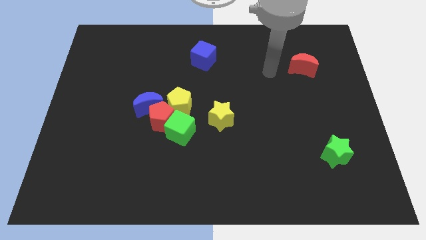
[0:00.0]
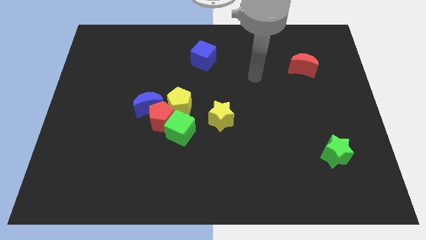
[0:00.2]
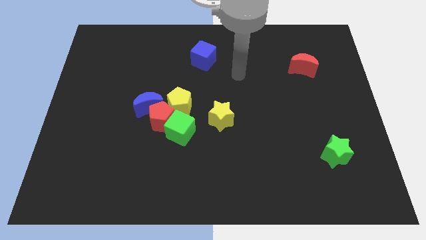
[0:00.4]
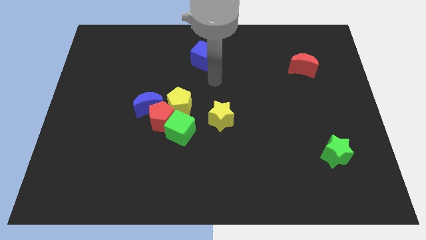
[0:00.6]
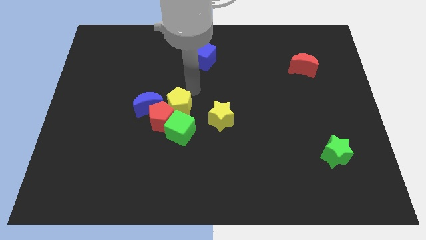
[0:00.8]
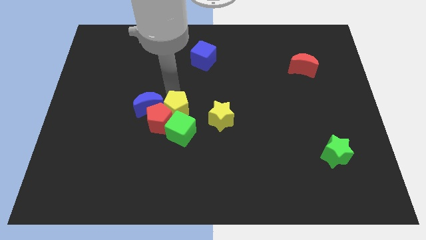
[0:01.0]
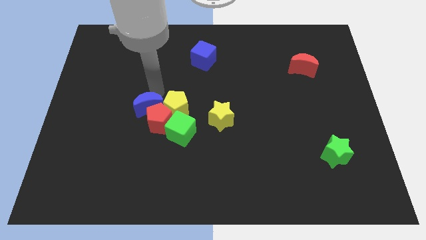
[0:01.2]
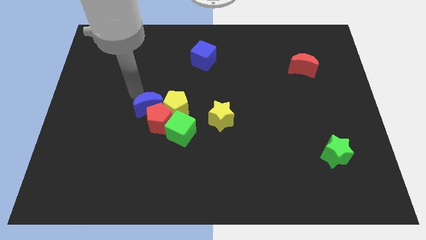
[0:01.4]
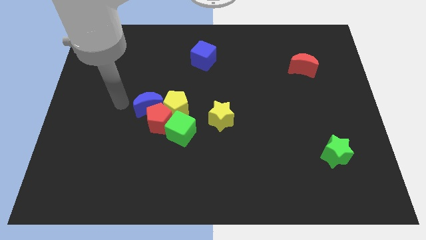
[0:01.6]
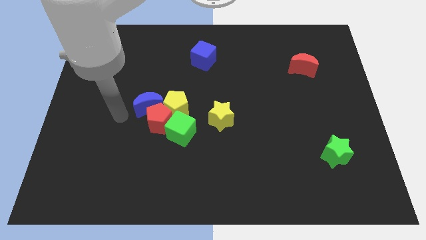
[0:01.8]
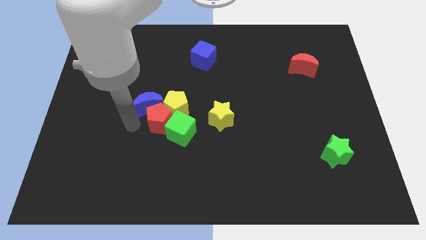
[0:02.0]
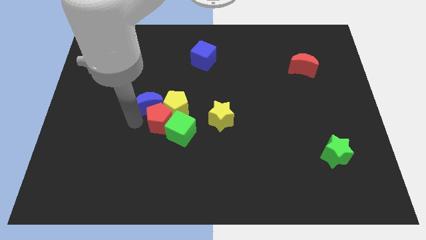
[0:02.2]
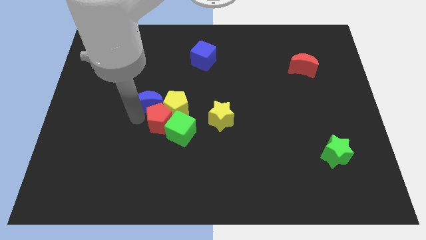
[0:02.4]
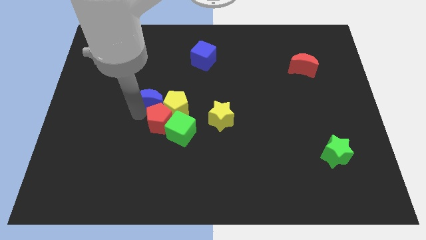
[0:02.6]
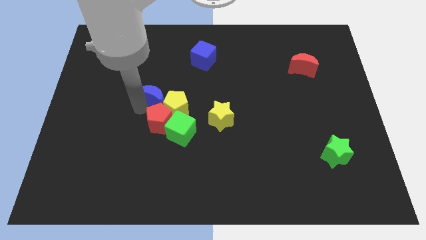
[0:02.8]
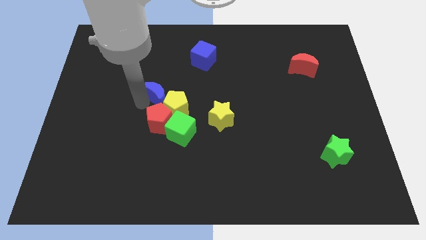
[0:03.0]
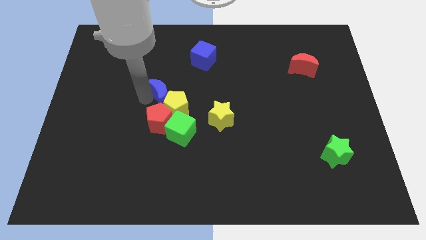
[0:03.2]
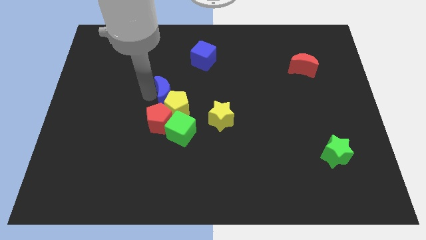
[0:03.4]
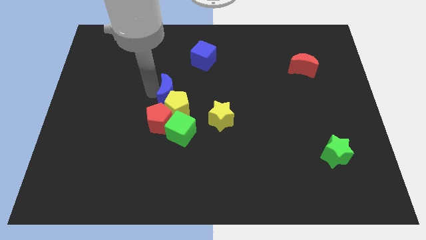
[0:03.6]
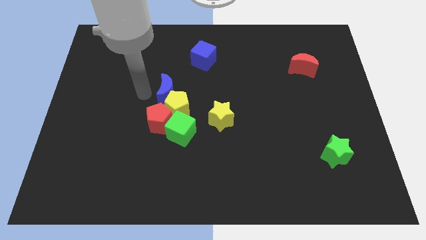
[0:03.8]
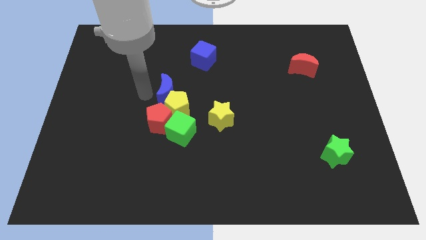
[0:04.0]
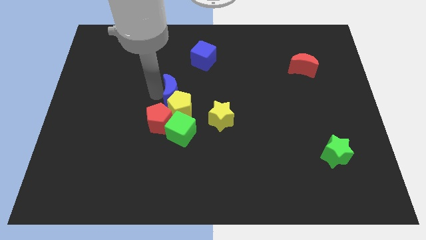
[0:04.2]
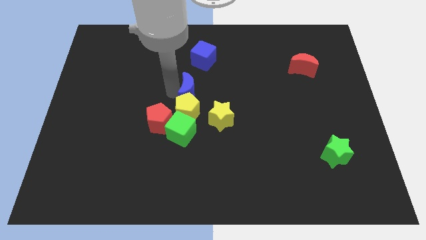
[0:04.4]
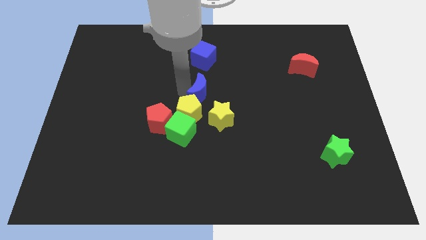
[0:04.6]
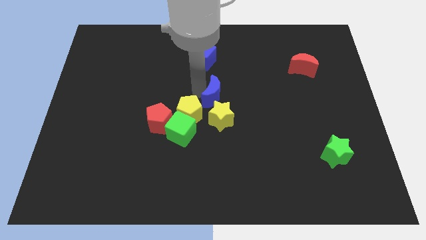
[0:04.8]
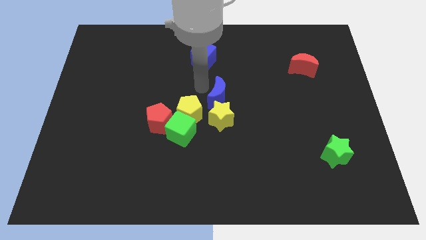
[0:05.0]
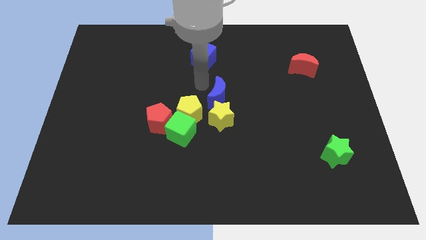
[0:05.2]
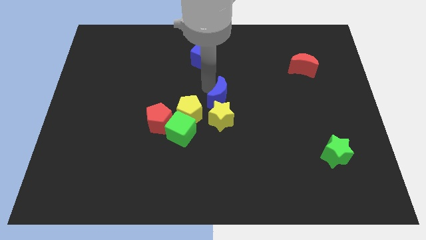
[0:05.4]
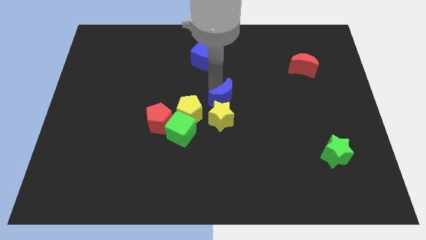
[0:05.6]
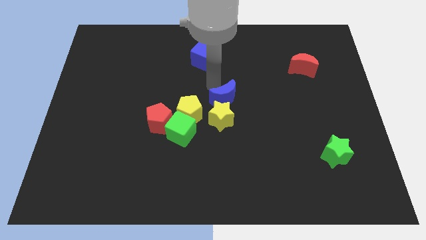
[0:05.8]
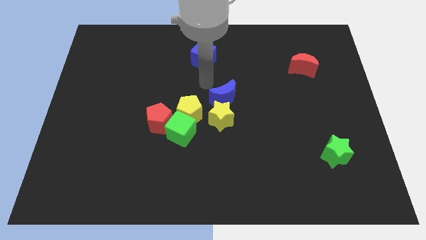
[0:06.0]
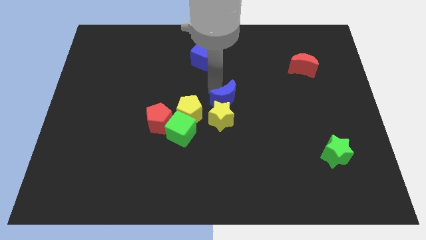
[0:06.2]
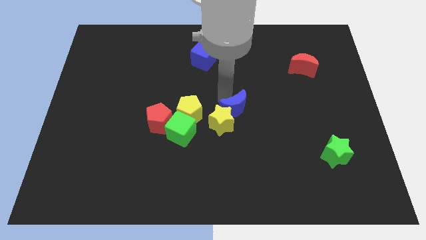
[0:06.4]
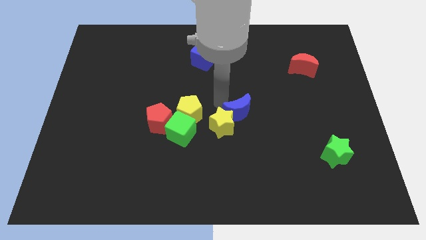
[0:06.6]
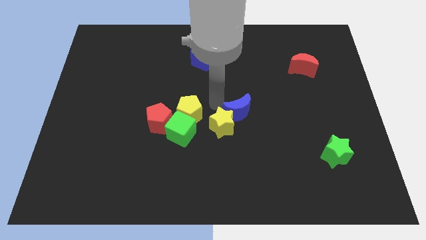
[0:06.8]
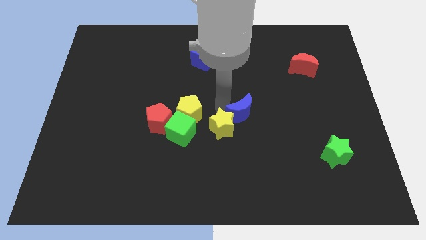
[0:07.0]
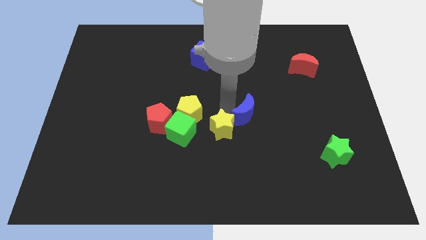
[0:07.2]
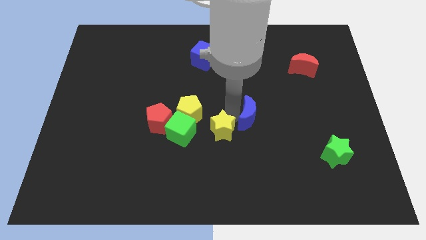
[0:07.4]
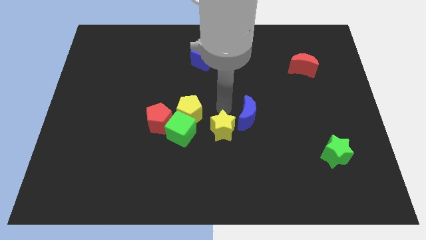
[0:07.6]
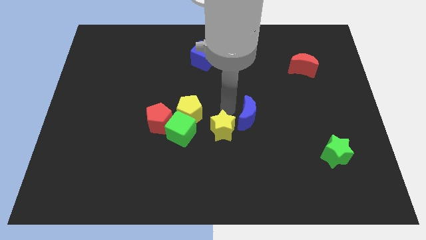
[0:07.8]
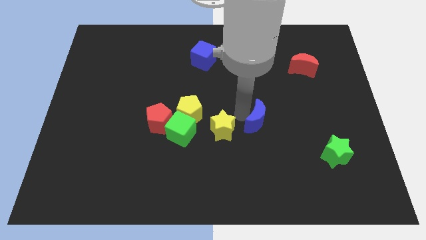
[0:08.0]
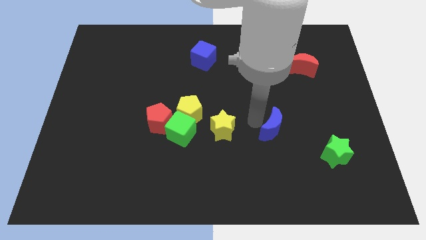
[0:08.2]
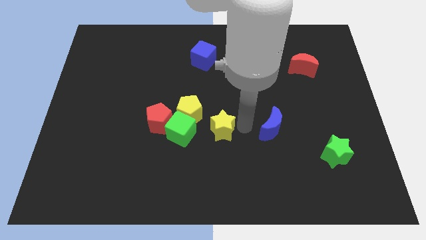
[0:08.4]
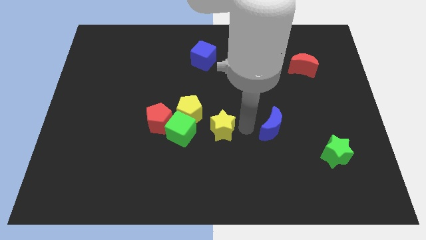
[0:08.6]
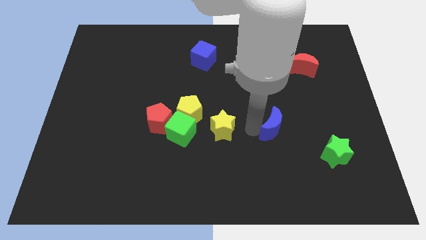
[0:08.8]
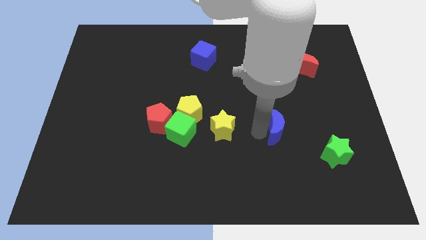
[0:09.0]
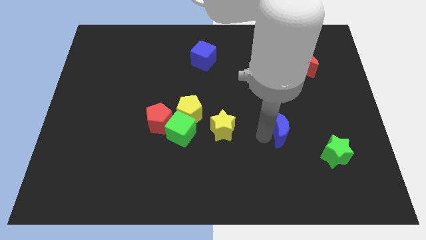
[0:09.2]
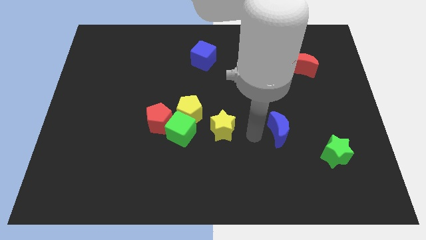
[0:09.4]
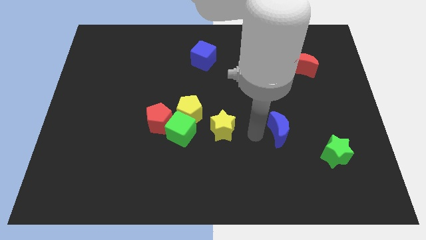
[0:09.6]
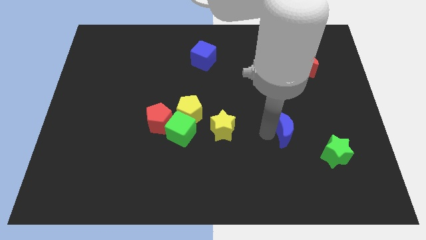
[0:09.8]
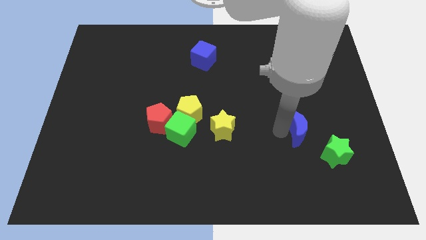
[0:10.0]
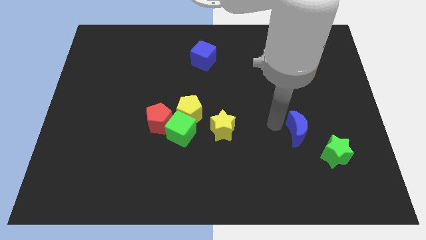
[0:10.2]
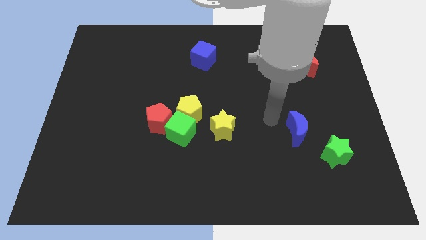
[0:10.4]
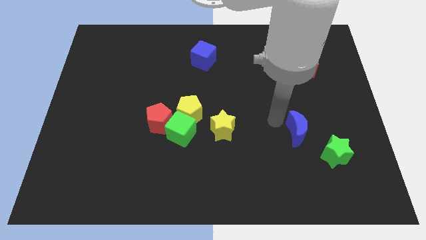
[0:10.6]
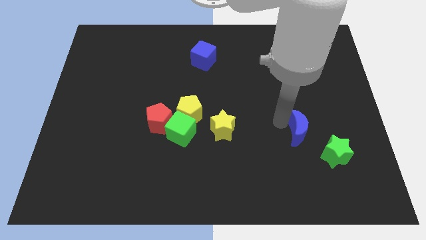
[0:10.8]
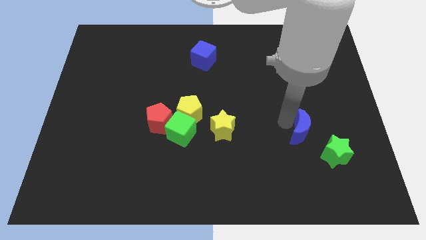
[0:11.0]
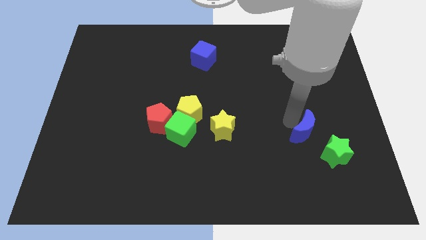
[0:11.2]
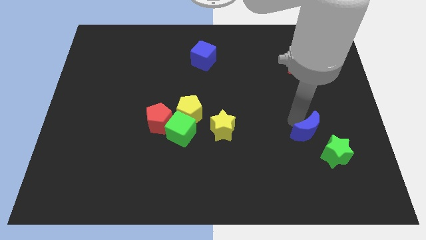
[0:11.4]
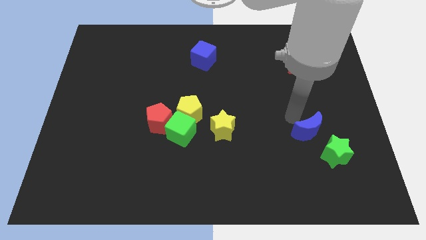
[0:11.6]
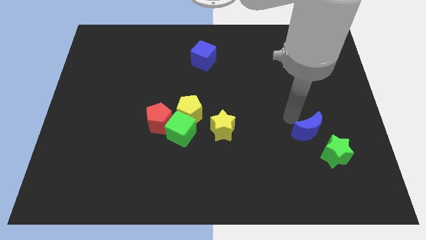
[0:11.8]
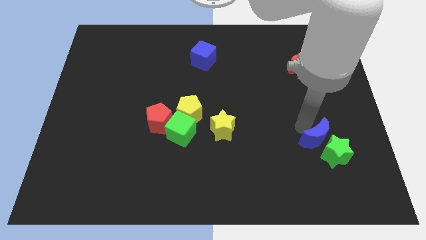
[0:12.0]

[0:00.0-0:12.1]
move the blue moon to the green star

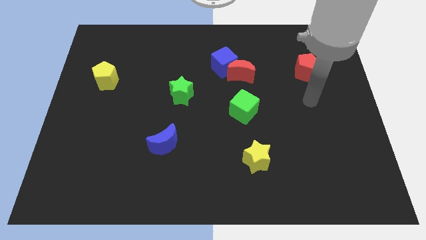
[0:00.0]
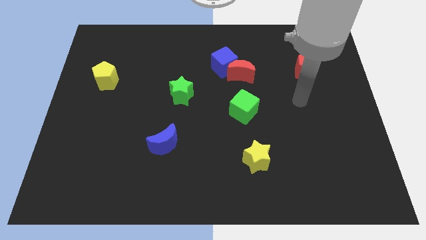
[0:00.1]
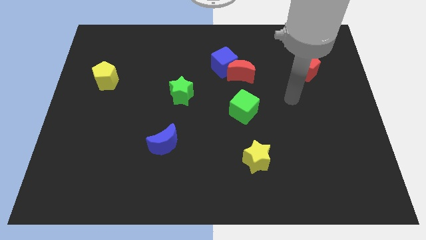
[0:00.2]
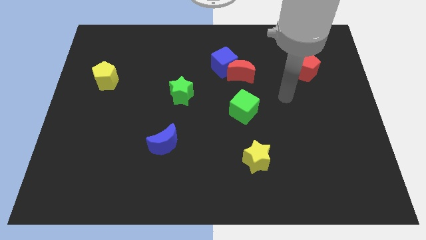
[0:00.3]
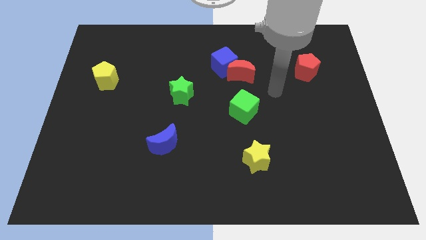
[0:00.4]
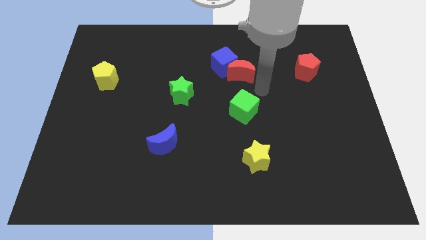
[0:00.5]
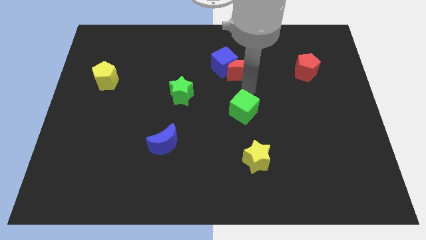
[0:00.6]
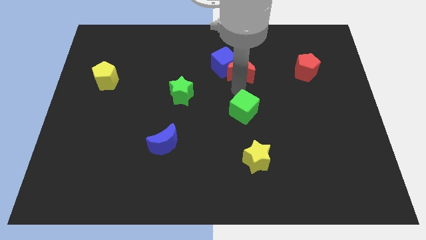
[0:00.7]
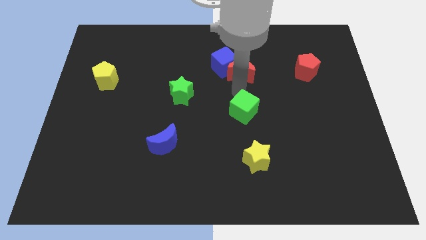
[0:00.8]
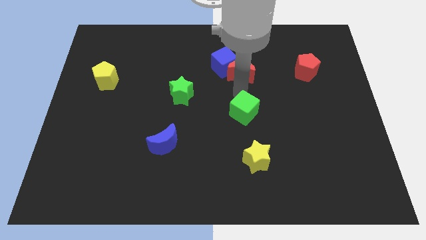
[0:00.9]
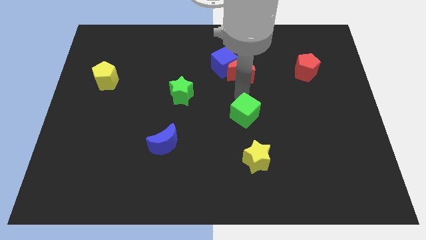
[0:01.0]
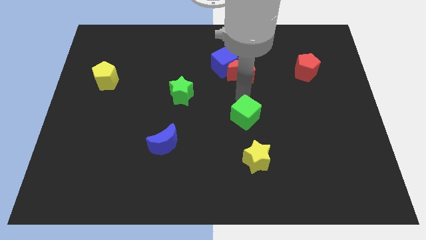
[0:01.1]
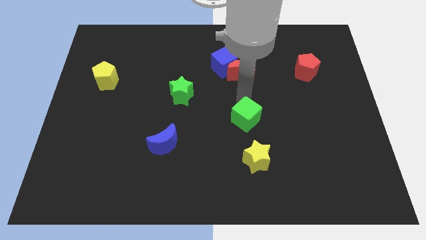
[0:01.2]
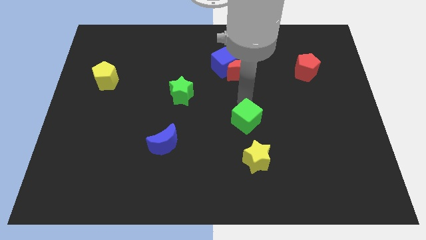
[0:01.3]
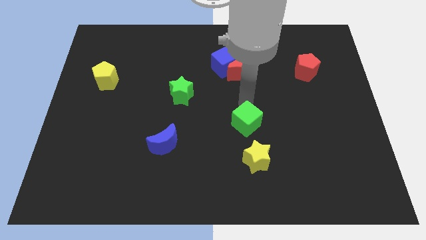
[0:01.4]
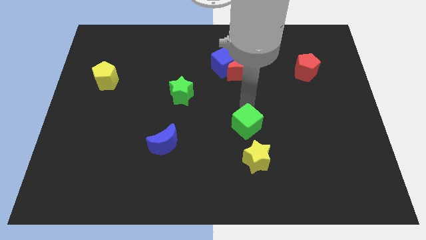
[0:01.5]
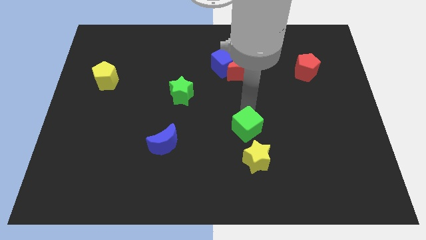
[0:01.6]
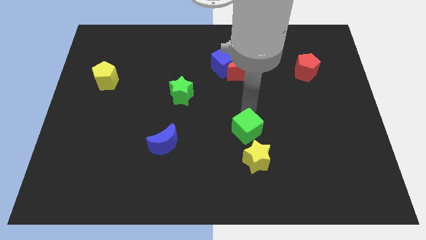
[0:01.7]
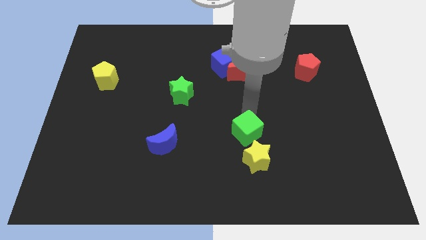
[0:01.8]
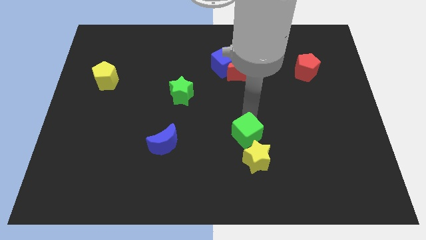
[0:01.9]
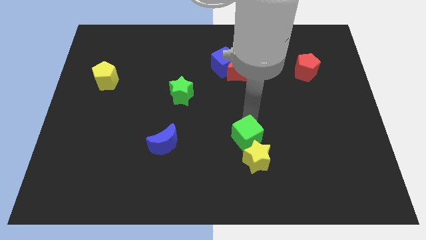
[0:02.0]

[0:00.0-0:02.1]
move the green cube next to the yellow star

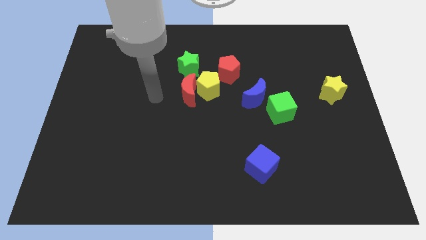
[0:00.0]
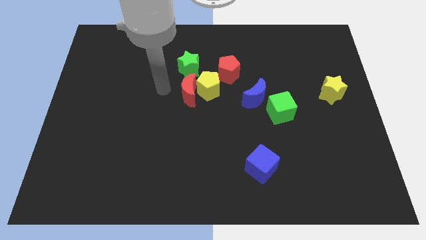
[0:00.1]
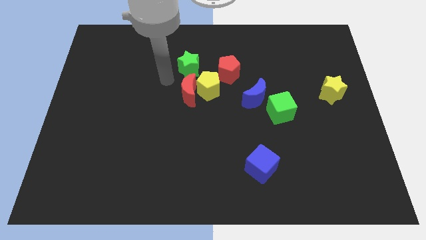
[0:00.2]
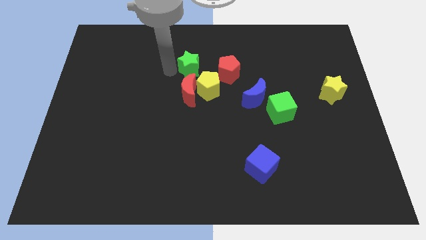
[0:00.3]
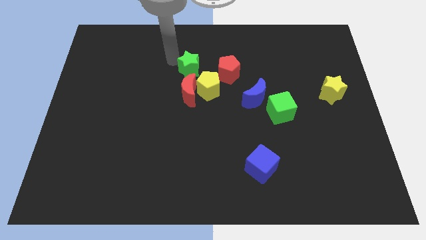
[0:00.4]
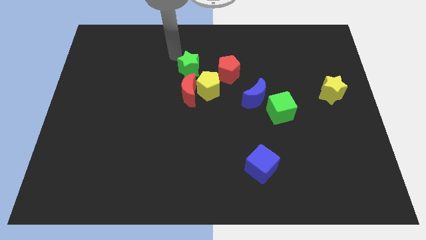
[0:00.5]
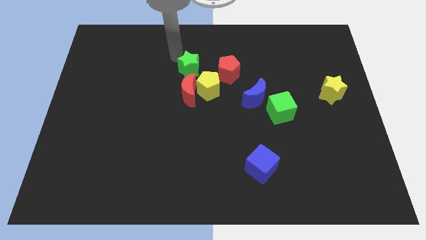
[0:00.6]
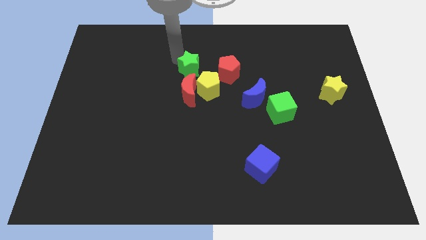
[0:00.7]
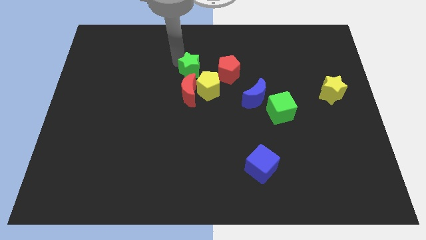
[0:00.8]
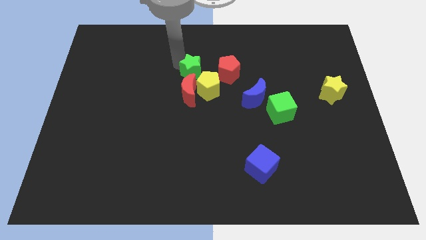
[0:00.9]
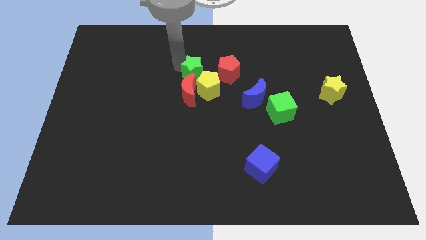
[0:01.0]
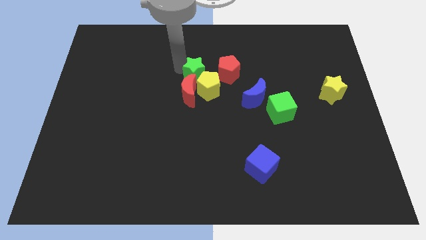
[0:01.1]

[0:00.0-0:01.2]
slide the green star close to the yellow pentagon
